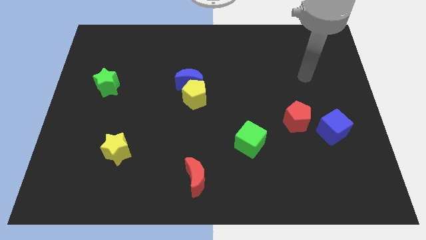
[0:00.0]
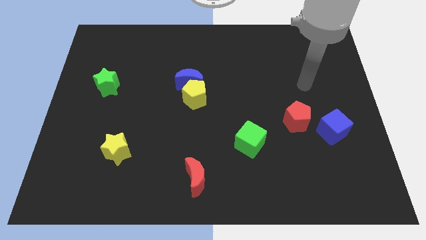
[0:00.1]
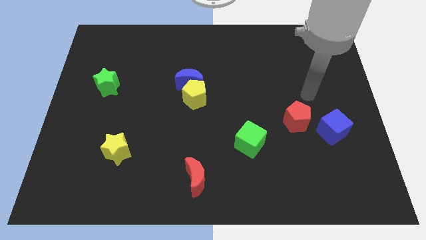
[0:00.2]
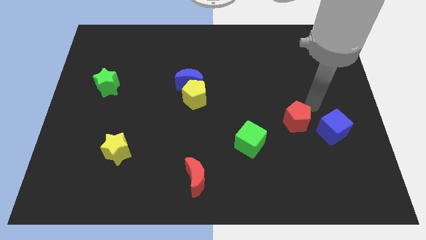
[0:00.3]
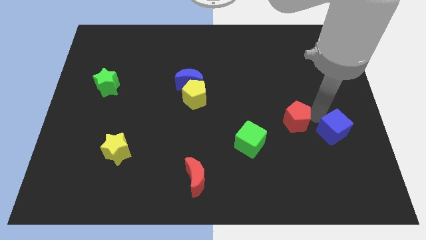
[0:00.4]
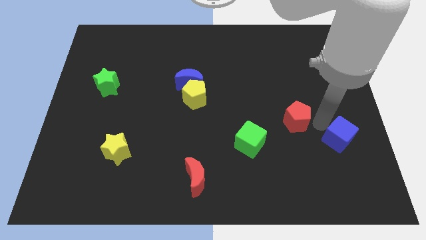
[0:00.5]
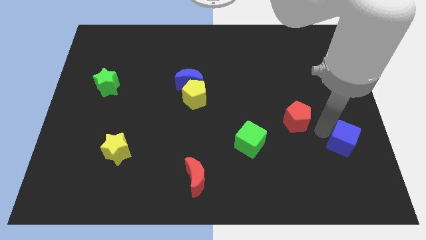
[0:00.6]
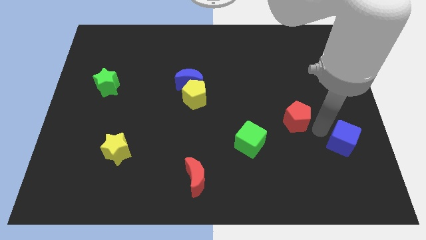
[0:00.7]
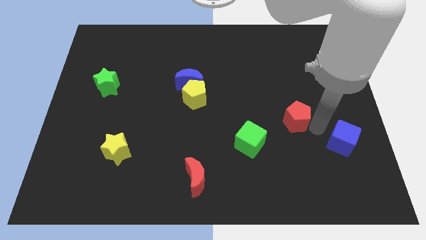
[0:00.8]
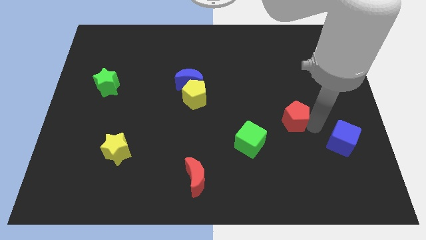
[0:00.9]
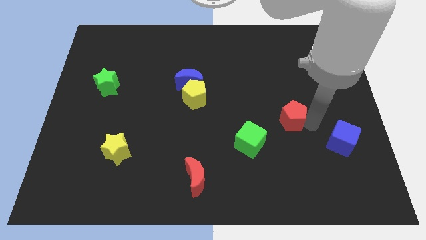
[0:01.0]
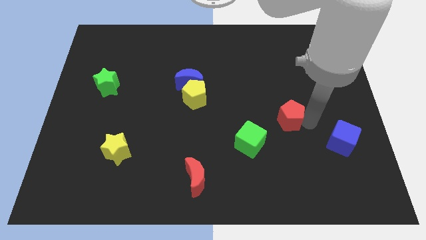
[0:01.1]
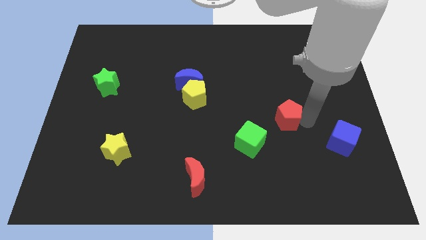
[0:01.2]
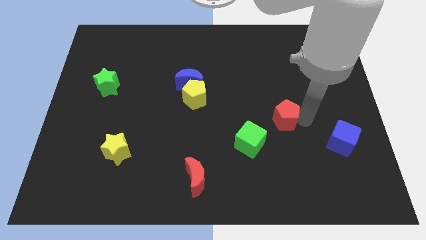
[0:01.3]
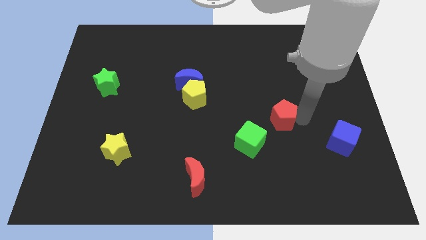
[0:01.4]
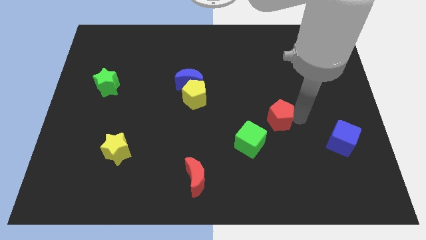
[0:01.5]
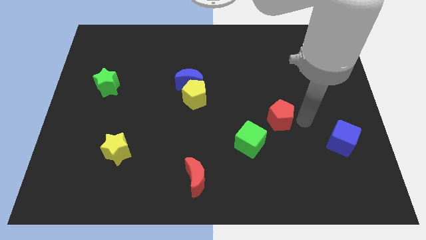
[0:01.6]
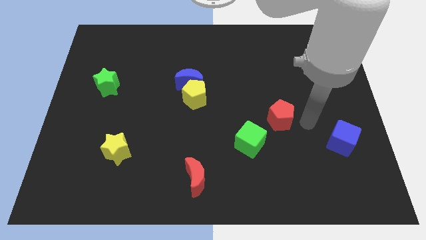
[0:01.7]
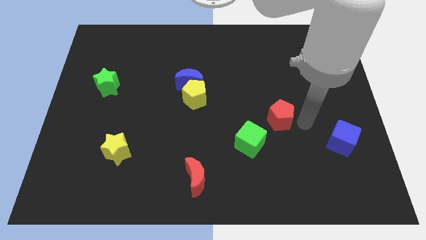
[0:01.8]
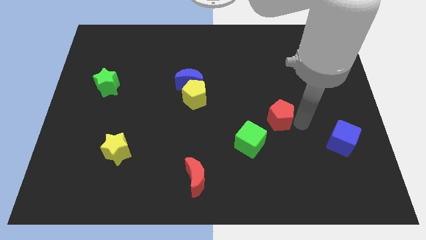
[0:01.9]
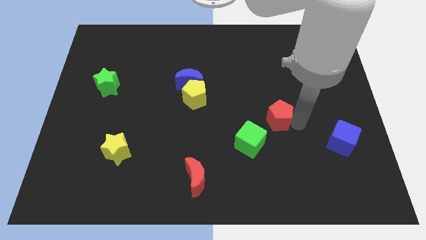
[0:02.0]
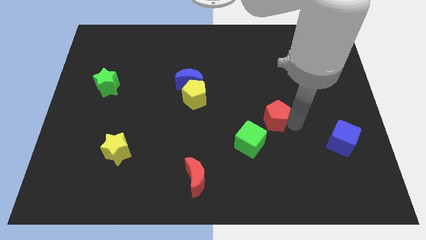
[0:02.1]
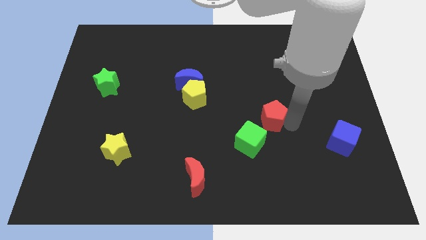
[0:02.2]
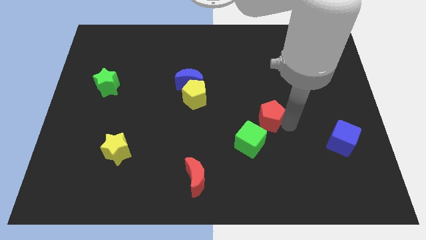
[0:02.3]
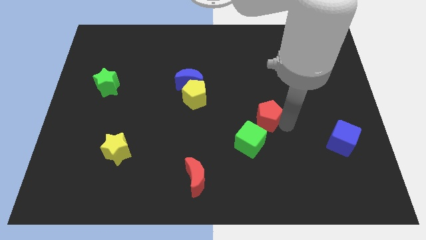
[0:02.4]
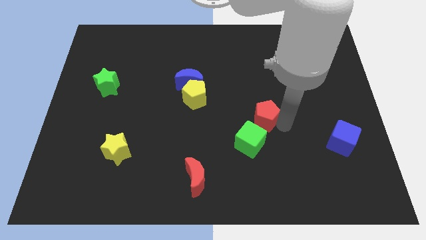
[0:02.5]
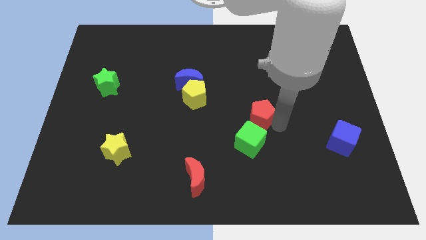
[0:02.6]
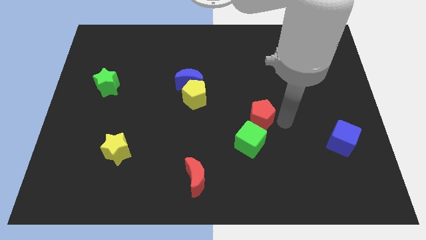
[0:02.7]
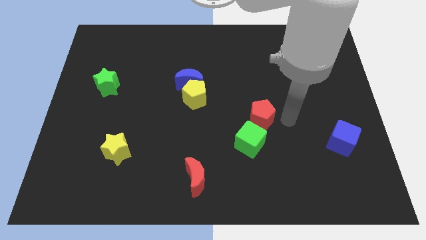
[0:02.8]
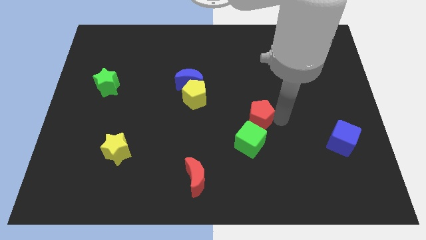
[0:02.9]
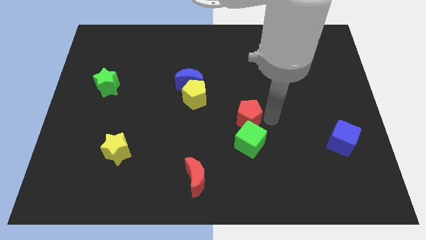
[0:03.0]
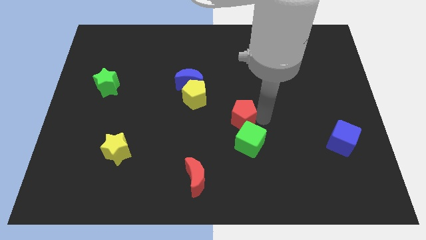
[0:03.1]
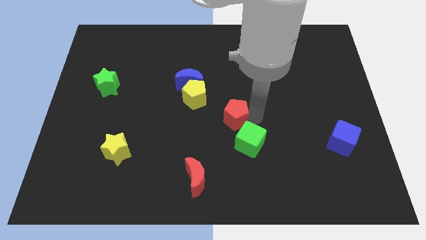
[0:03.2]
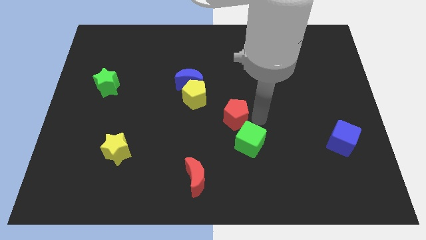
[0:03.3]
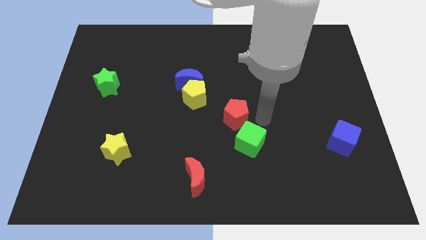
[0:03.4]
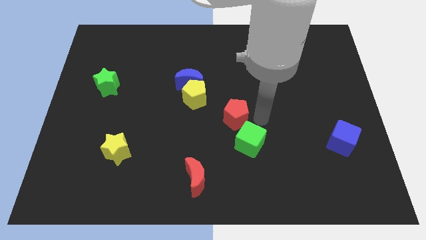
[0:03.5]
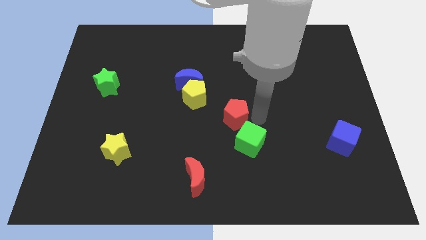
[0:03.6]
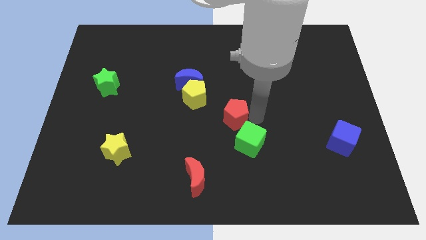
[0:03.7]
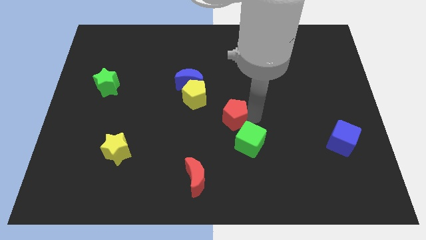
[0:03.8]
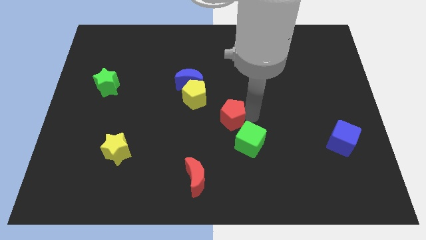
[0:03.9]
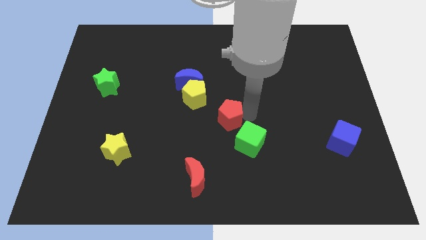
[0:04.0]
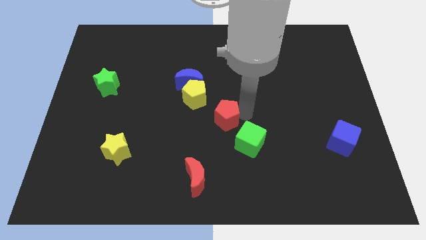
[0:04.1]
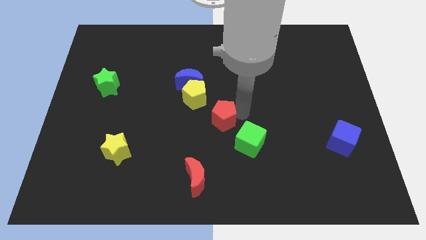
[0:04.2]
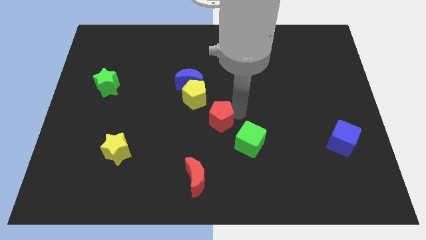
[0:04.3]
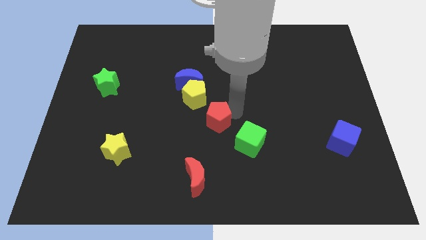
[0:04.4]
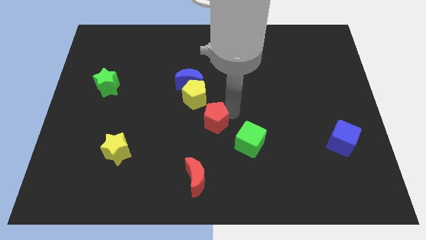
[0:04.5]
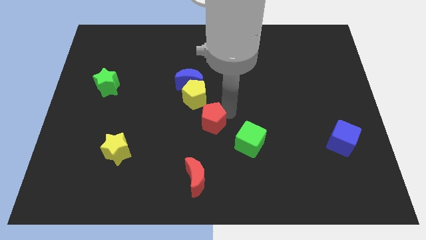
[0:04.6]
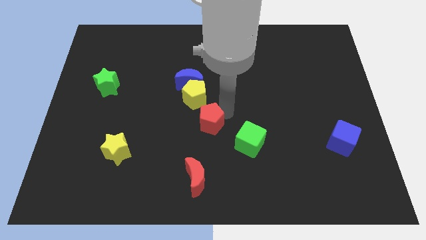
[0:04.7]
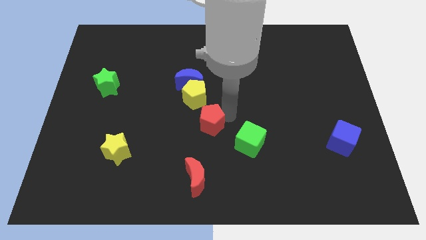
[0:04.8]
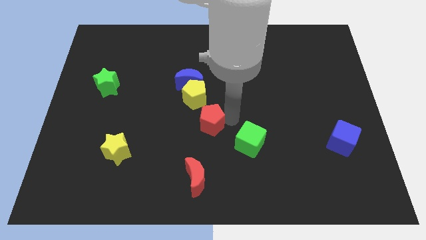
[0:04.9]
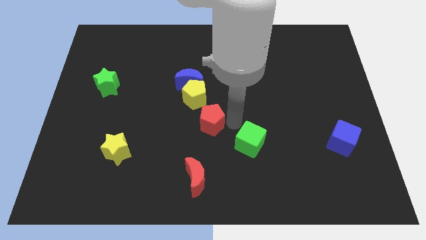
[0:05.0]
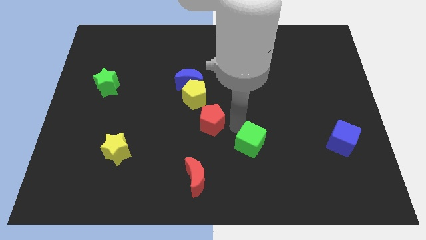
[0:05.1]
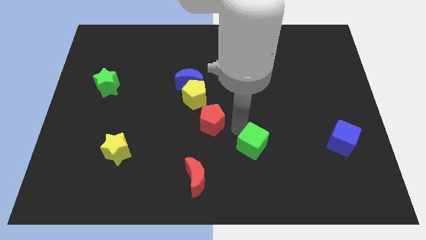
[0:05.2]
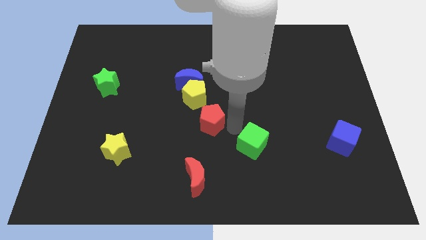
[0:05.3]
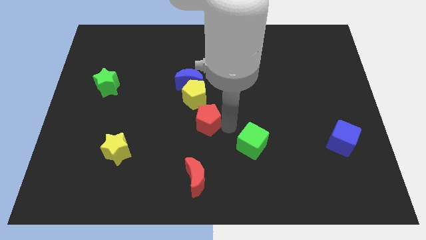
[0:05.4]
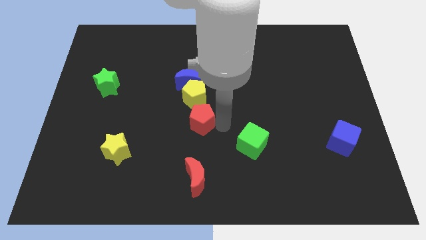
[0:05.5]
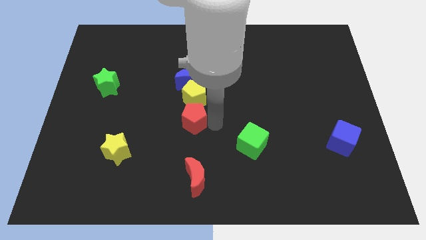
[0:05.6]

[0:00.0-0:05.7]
move the red pentagon to the bottom left side of the yellow pentagon

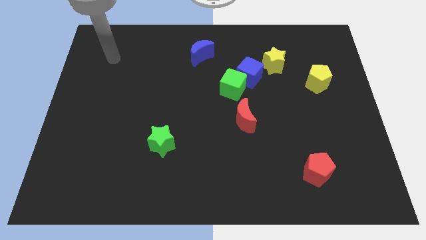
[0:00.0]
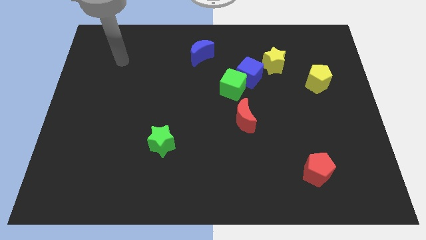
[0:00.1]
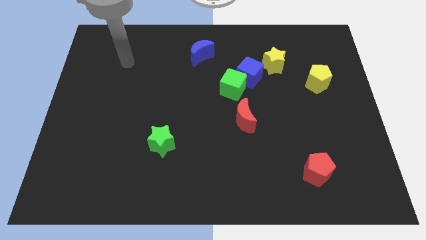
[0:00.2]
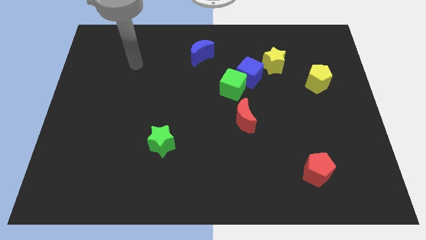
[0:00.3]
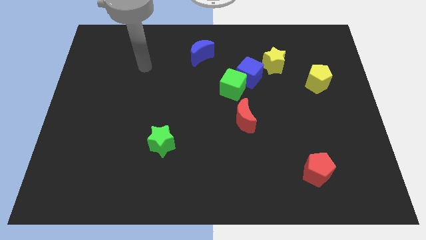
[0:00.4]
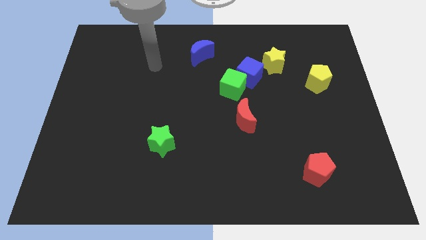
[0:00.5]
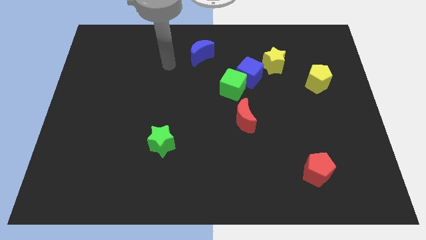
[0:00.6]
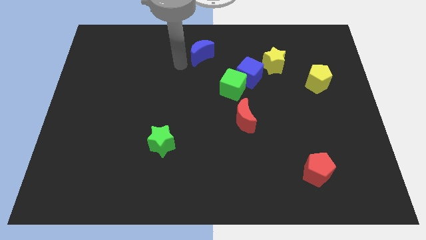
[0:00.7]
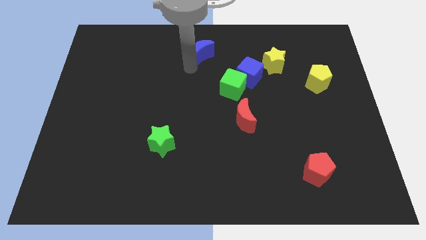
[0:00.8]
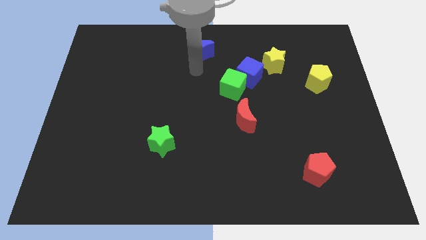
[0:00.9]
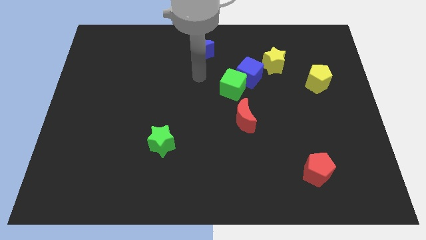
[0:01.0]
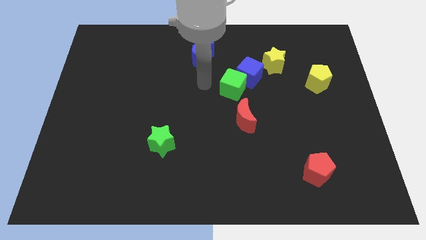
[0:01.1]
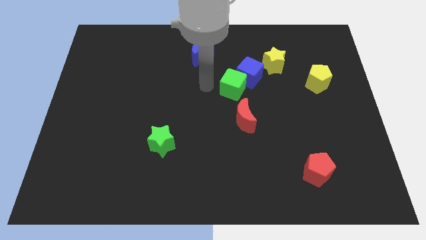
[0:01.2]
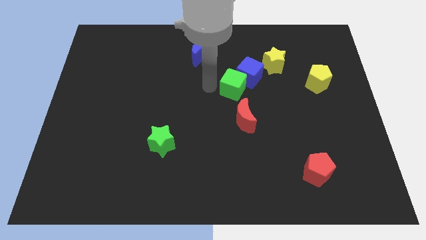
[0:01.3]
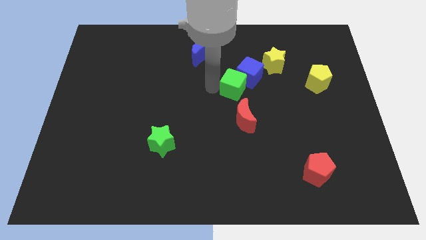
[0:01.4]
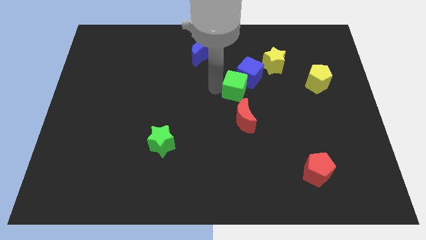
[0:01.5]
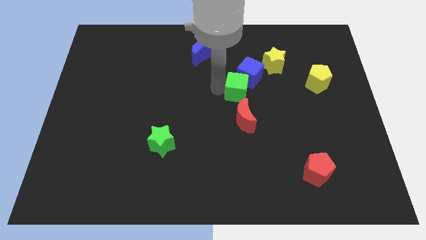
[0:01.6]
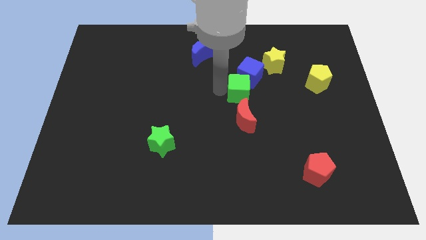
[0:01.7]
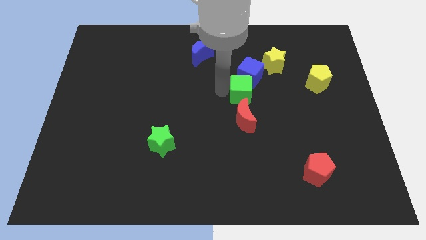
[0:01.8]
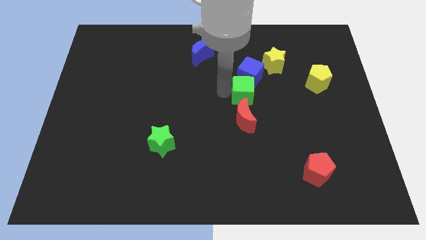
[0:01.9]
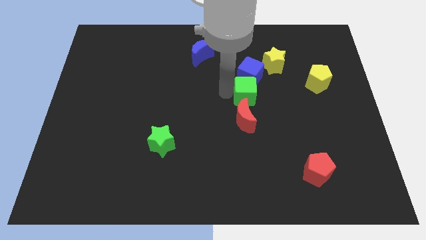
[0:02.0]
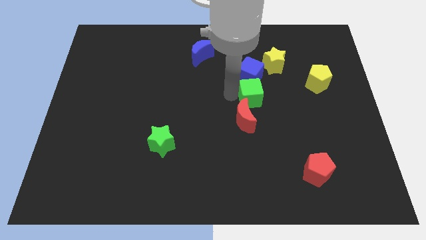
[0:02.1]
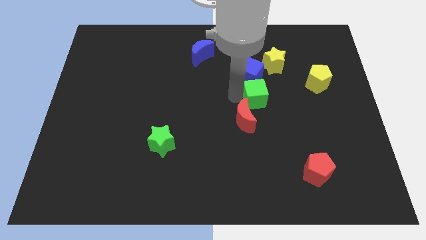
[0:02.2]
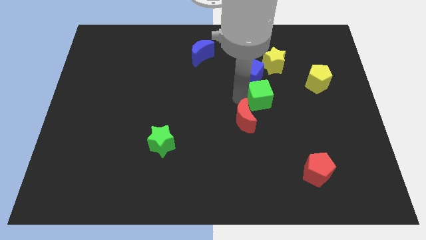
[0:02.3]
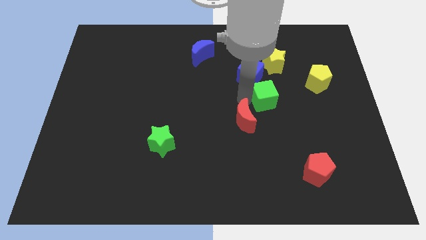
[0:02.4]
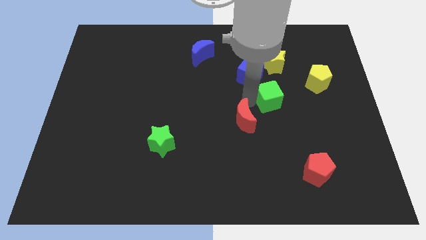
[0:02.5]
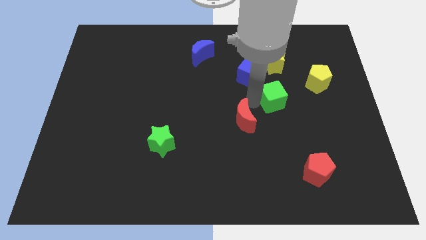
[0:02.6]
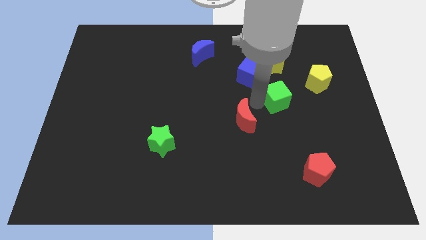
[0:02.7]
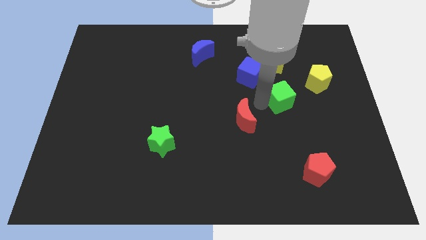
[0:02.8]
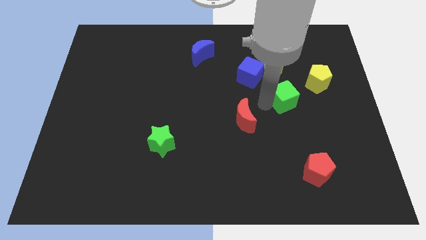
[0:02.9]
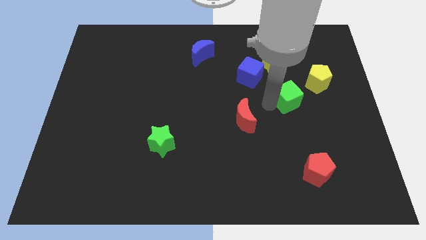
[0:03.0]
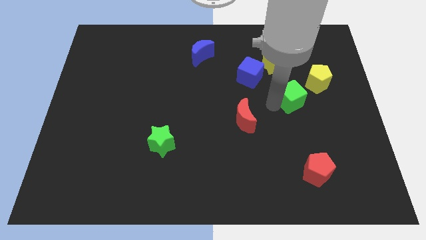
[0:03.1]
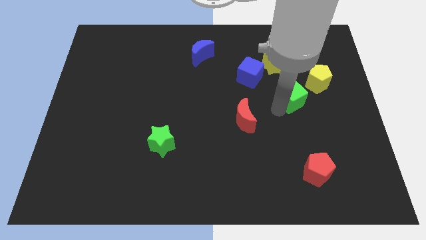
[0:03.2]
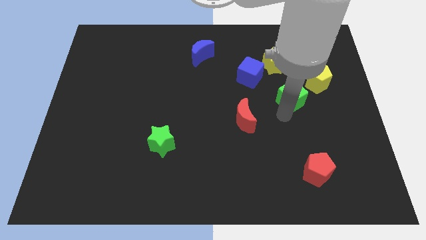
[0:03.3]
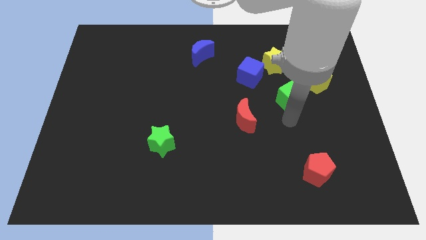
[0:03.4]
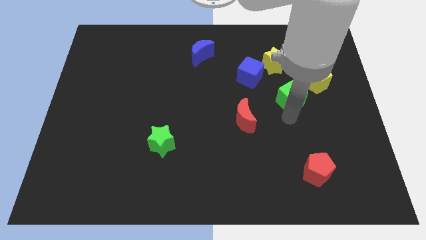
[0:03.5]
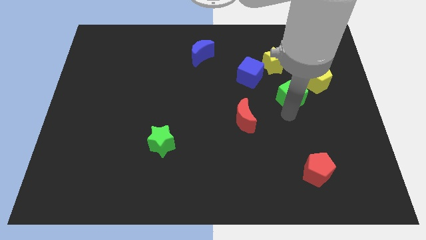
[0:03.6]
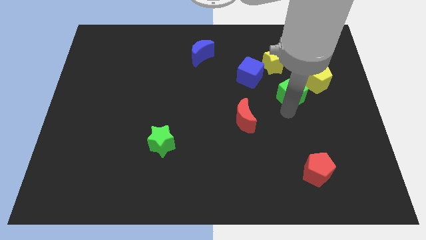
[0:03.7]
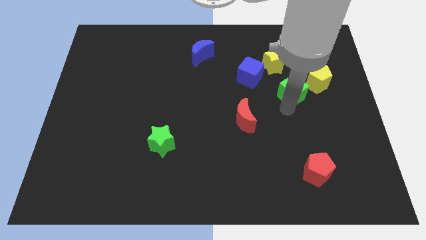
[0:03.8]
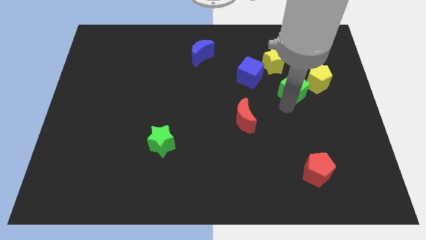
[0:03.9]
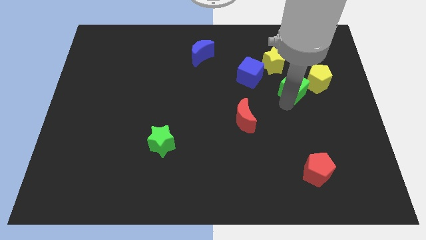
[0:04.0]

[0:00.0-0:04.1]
slide the green cube just right of the blue cube
